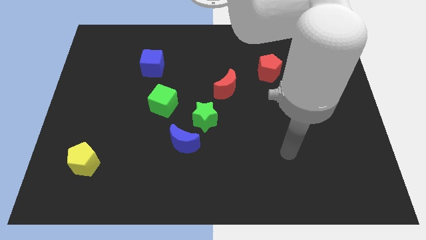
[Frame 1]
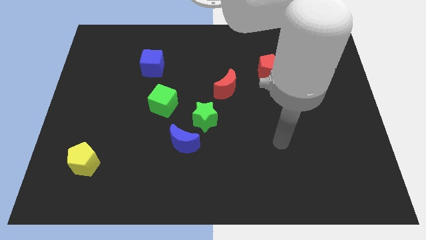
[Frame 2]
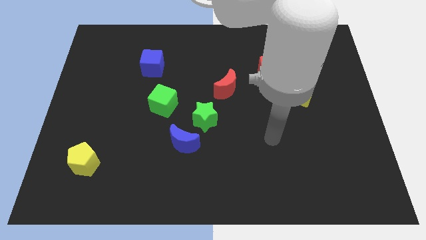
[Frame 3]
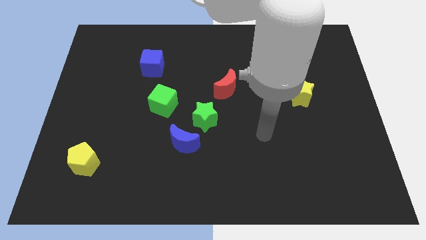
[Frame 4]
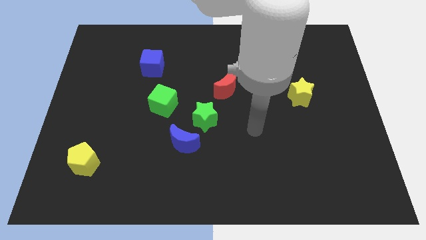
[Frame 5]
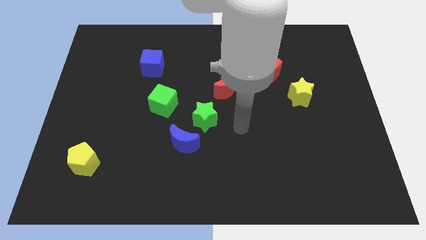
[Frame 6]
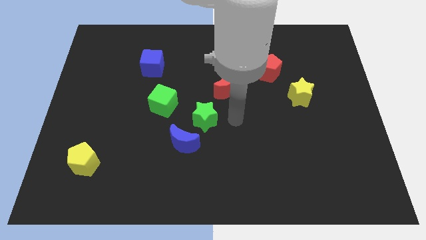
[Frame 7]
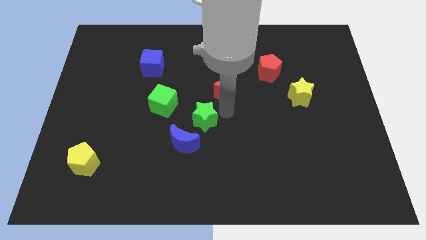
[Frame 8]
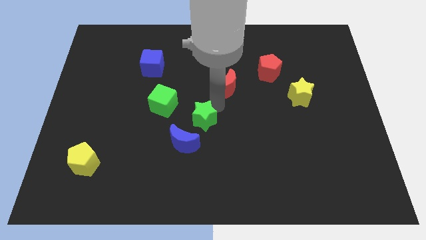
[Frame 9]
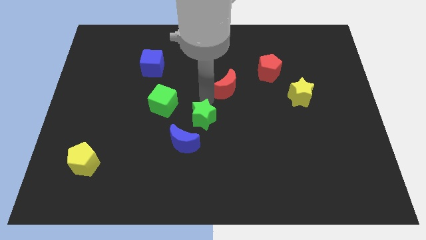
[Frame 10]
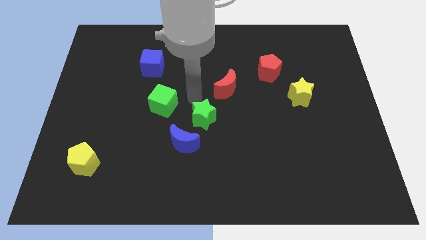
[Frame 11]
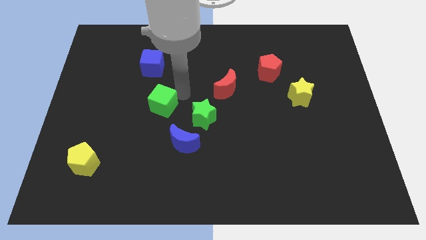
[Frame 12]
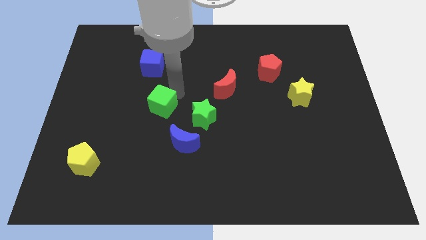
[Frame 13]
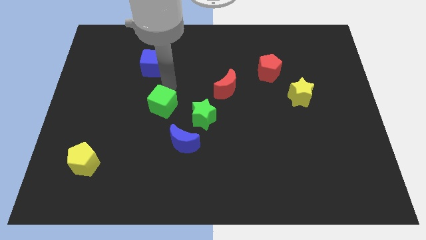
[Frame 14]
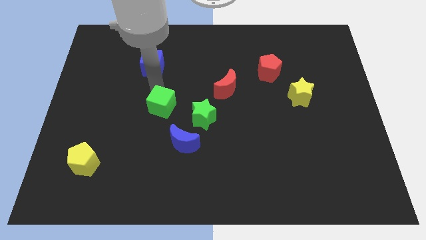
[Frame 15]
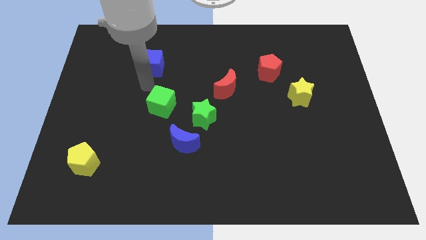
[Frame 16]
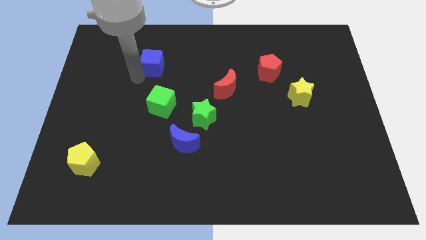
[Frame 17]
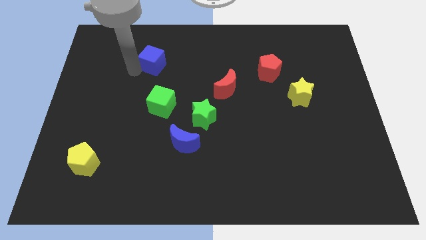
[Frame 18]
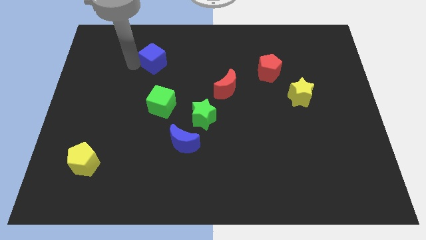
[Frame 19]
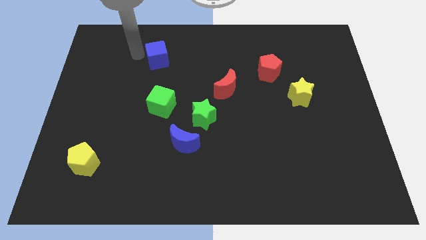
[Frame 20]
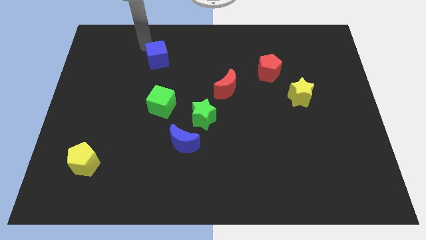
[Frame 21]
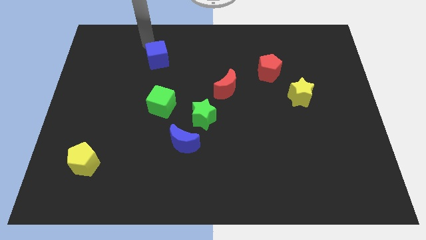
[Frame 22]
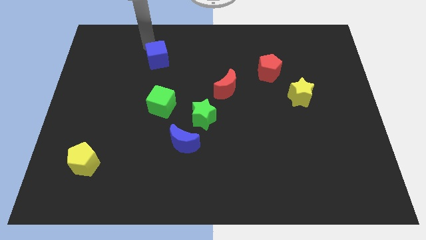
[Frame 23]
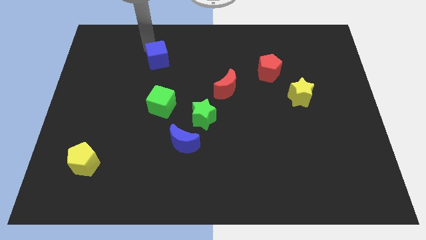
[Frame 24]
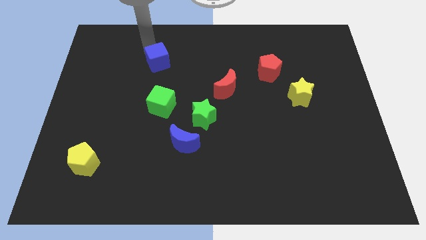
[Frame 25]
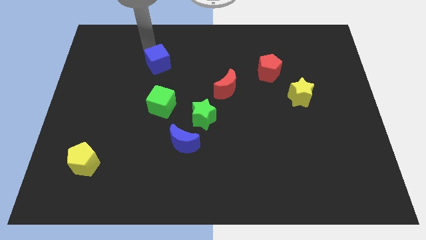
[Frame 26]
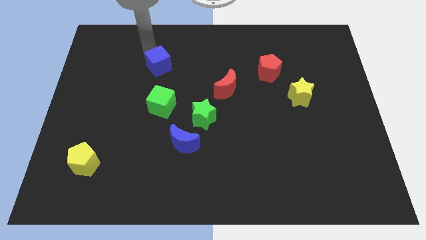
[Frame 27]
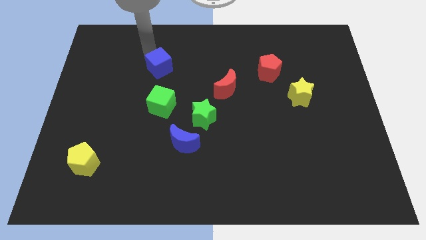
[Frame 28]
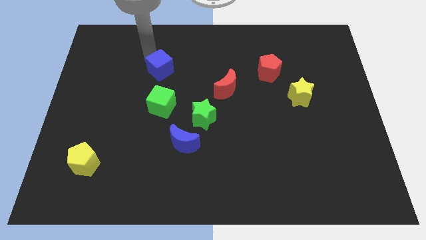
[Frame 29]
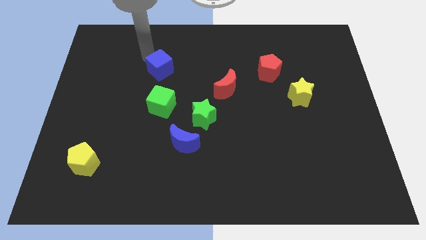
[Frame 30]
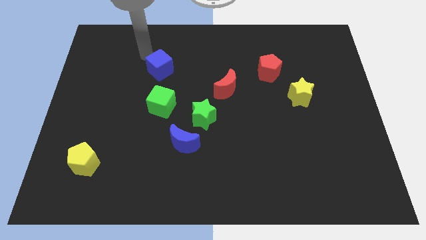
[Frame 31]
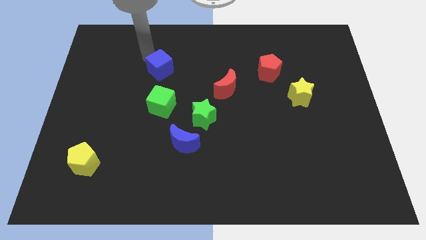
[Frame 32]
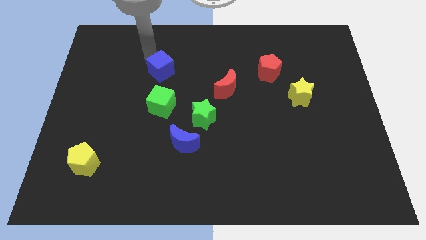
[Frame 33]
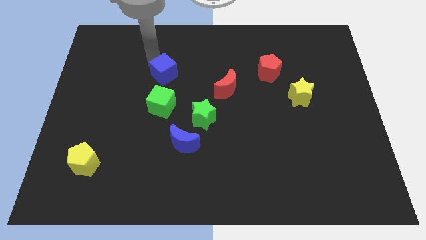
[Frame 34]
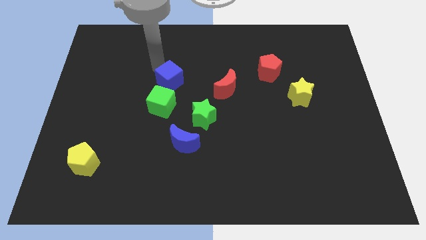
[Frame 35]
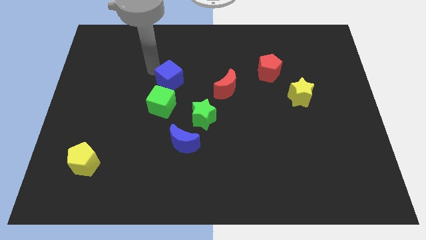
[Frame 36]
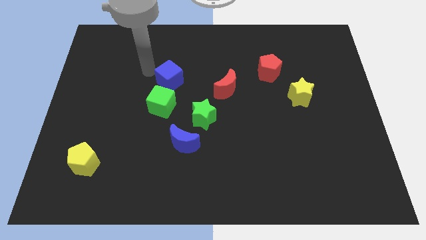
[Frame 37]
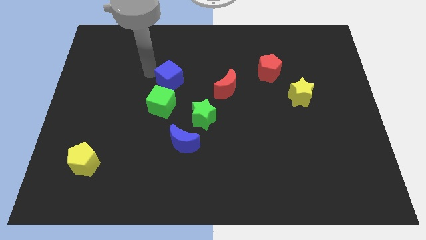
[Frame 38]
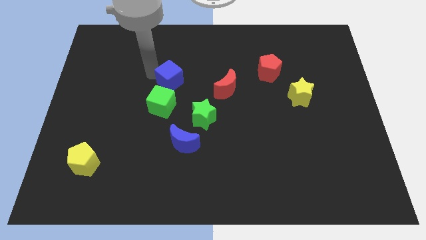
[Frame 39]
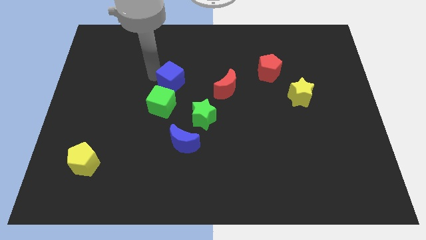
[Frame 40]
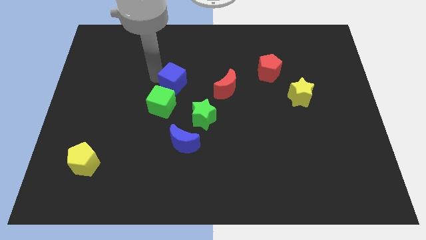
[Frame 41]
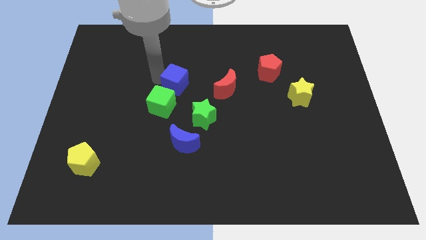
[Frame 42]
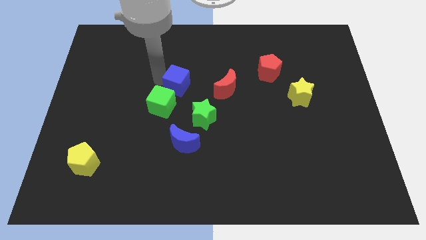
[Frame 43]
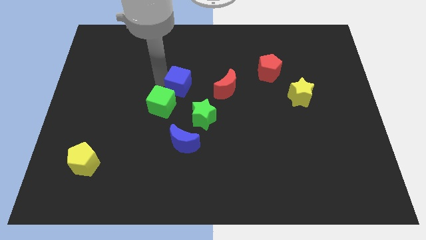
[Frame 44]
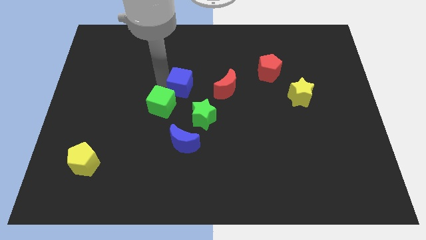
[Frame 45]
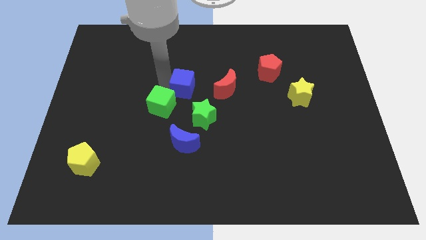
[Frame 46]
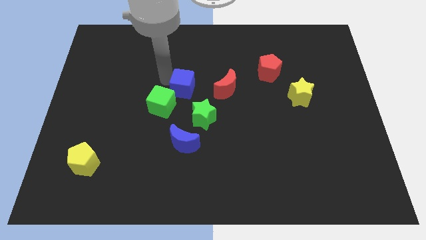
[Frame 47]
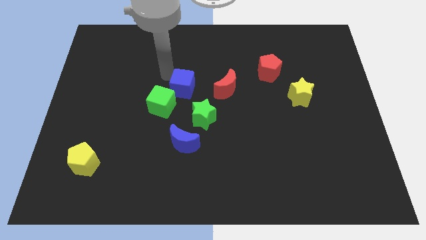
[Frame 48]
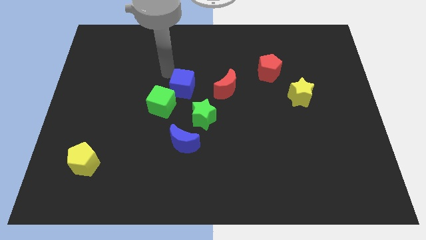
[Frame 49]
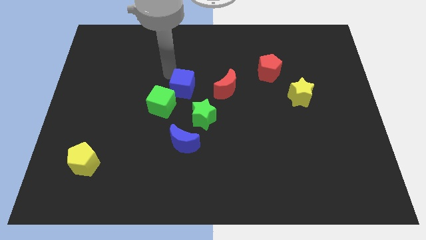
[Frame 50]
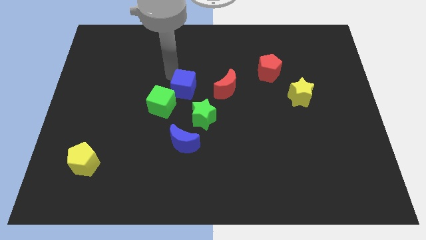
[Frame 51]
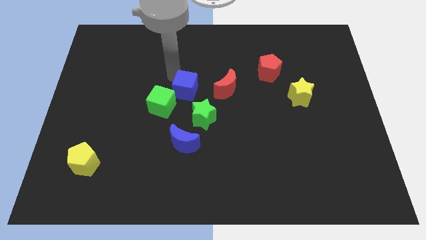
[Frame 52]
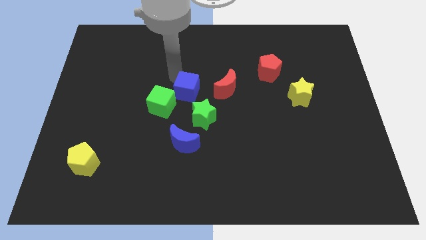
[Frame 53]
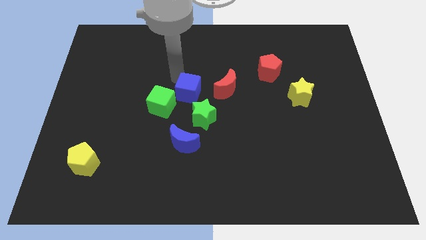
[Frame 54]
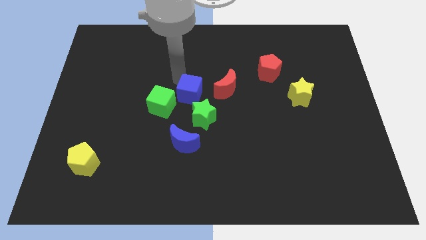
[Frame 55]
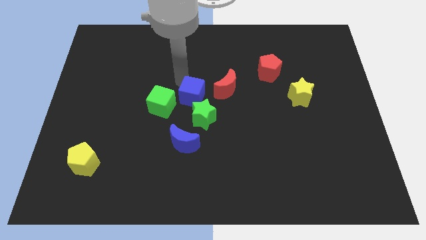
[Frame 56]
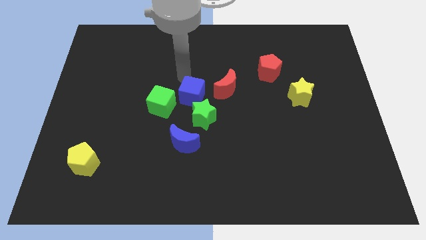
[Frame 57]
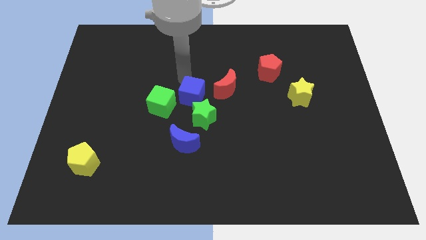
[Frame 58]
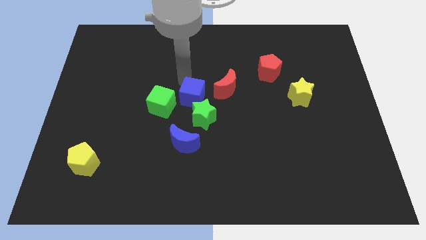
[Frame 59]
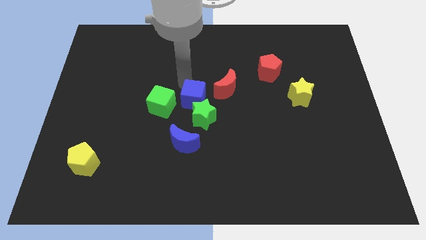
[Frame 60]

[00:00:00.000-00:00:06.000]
move the blue cube next to the green star

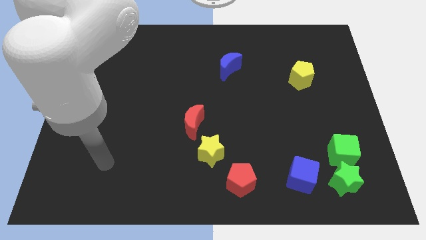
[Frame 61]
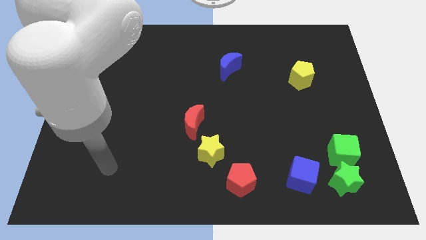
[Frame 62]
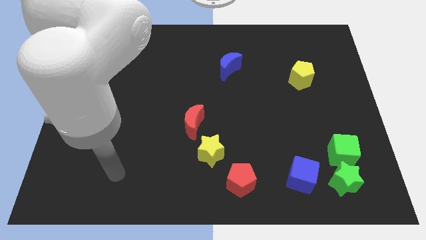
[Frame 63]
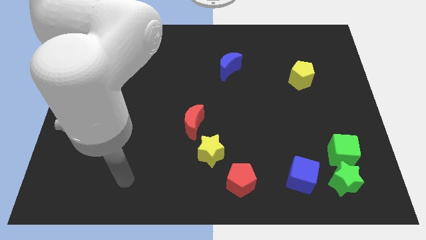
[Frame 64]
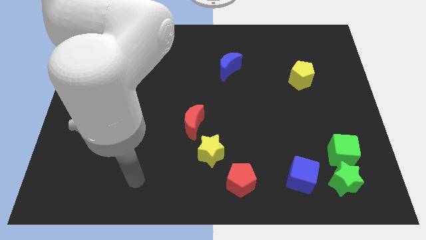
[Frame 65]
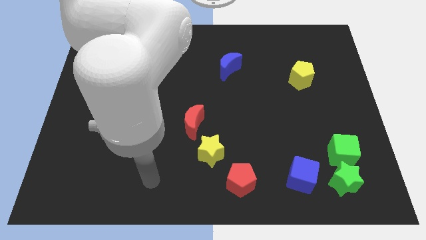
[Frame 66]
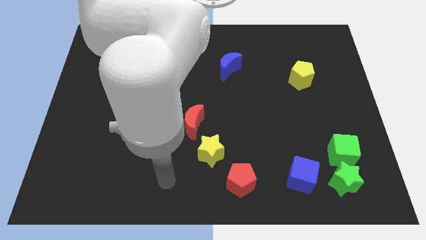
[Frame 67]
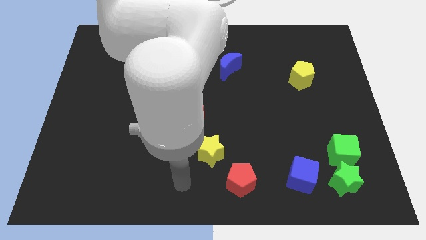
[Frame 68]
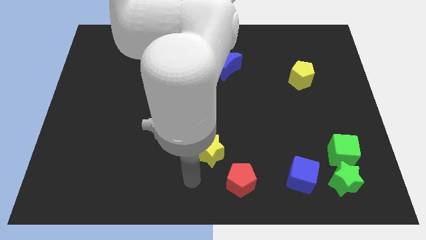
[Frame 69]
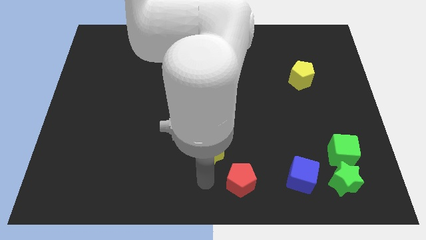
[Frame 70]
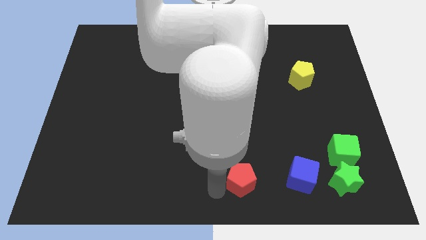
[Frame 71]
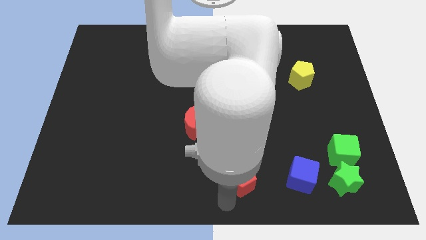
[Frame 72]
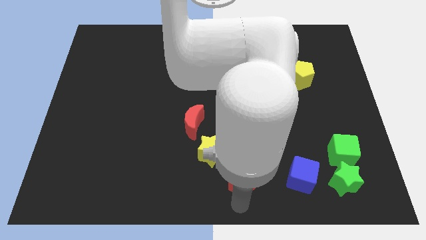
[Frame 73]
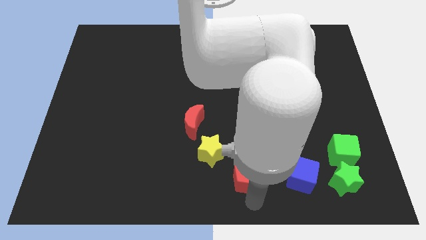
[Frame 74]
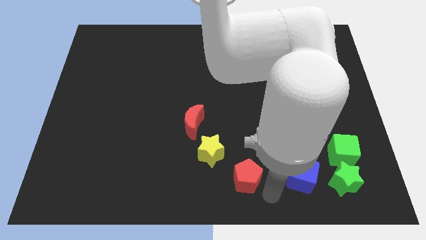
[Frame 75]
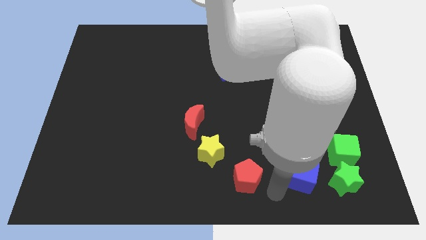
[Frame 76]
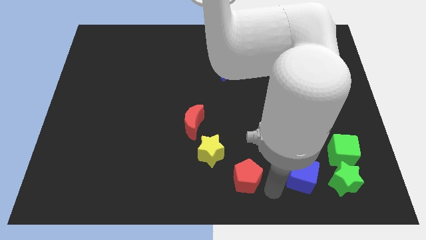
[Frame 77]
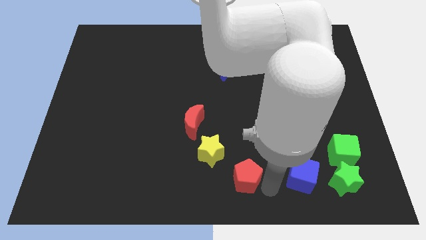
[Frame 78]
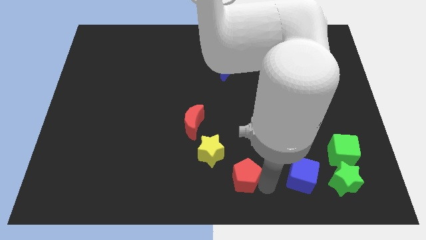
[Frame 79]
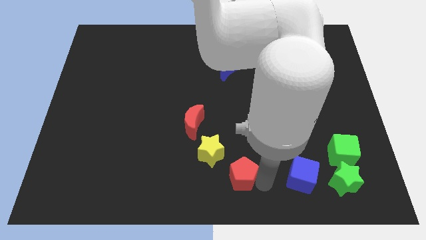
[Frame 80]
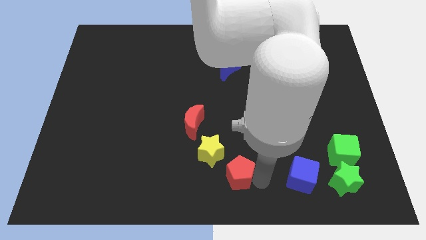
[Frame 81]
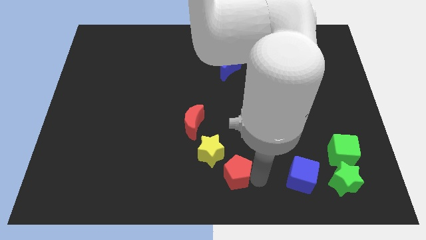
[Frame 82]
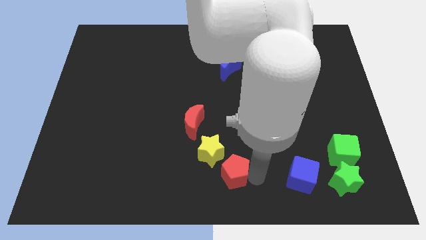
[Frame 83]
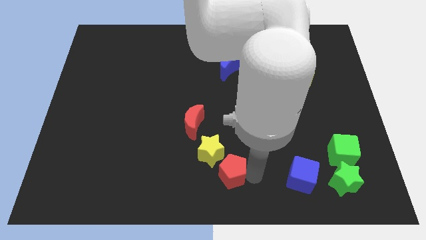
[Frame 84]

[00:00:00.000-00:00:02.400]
put the red pentagon to the yellow star
